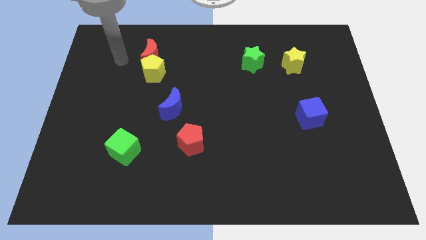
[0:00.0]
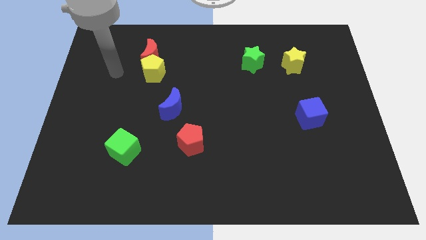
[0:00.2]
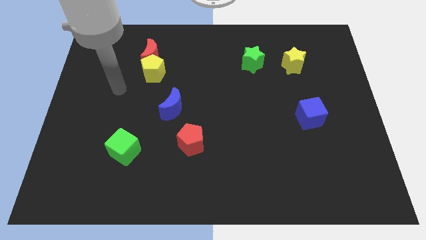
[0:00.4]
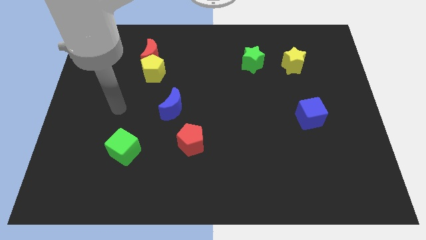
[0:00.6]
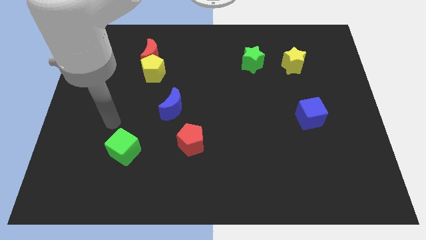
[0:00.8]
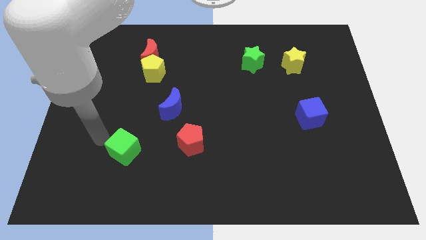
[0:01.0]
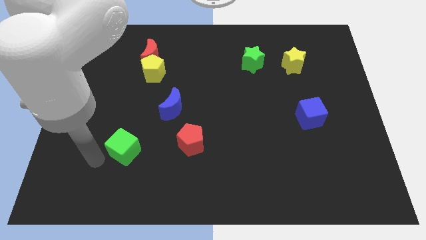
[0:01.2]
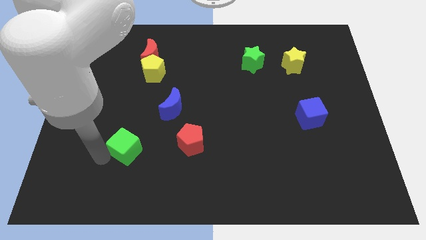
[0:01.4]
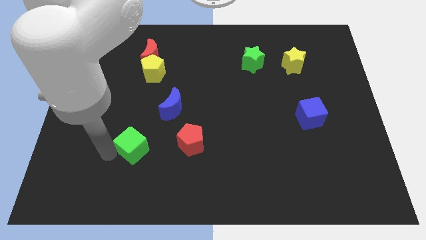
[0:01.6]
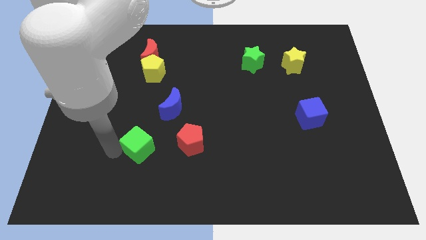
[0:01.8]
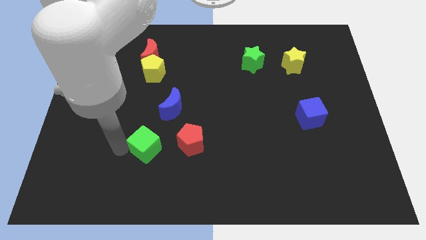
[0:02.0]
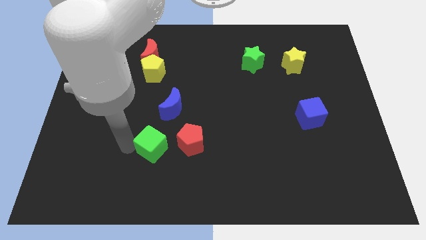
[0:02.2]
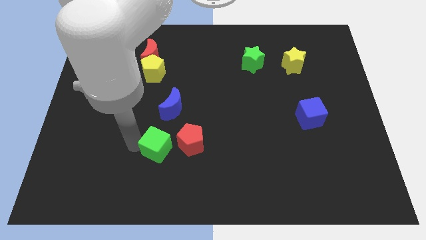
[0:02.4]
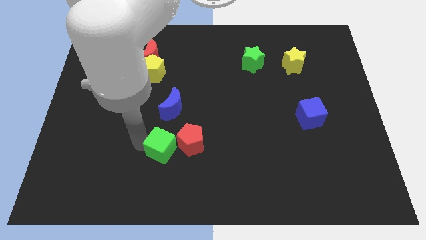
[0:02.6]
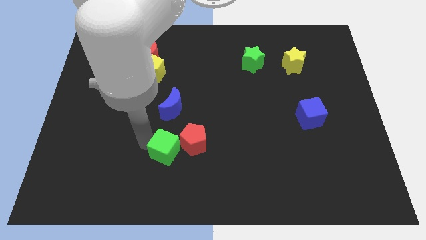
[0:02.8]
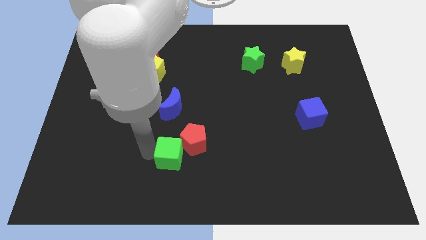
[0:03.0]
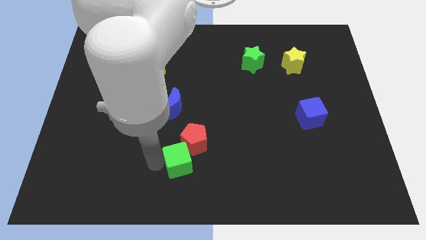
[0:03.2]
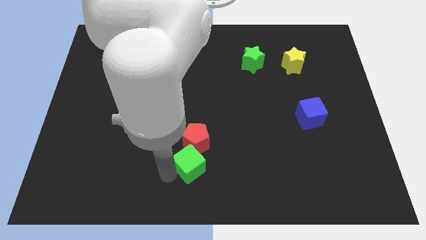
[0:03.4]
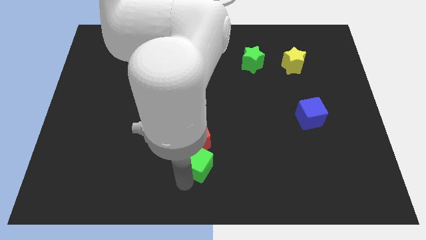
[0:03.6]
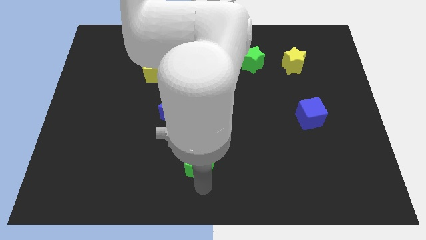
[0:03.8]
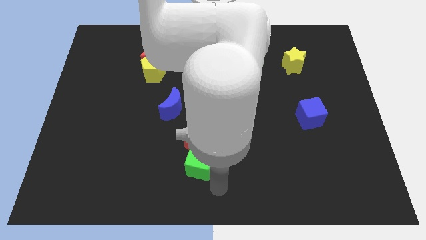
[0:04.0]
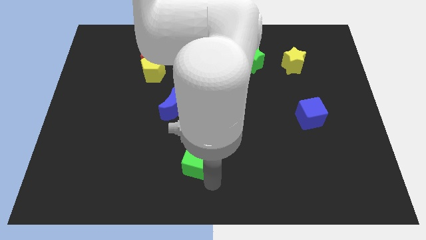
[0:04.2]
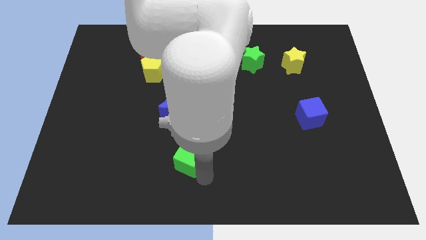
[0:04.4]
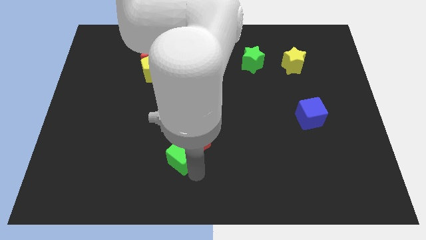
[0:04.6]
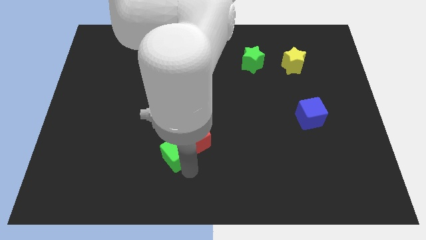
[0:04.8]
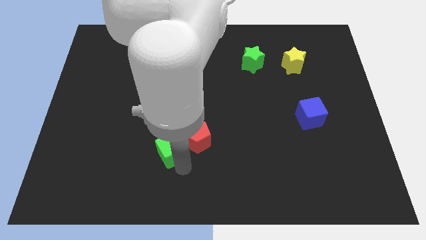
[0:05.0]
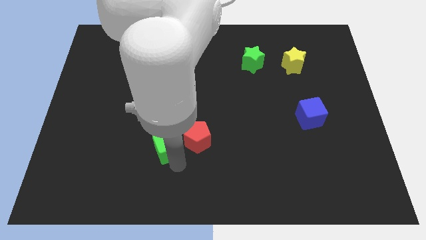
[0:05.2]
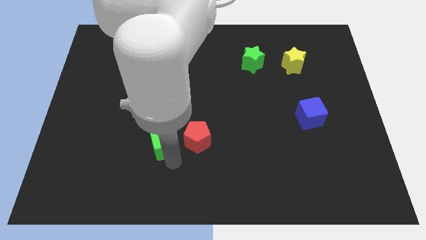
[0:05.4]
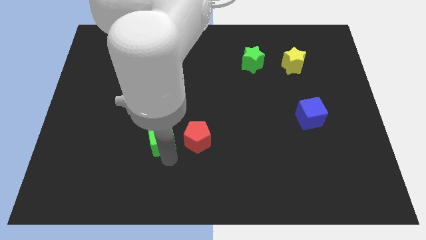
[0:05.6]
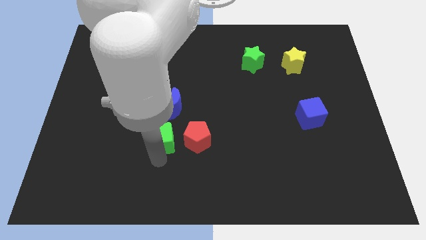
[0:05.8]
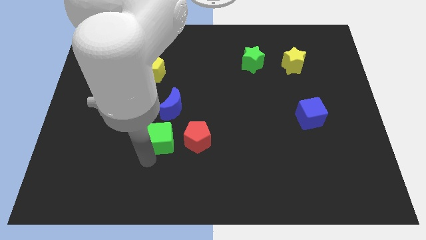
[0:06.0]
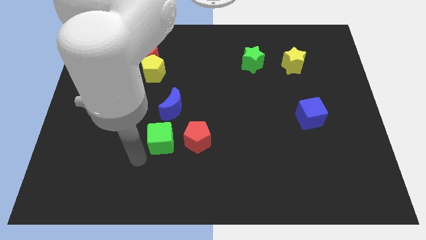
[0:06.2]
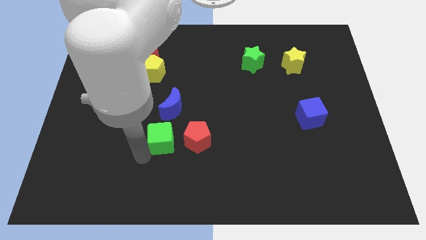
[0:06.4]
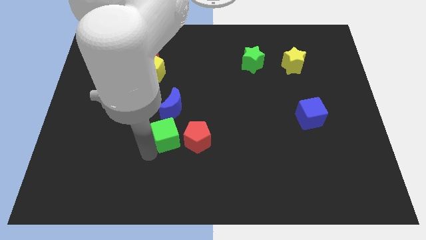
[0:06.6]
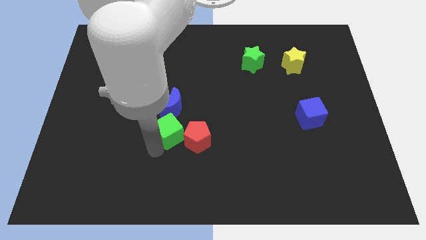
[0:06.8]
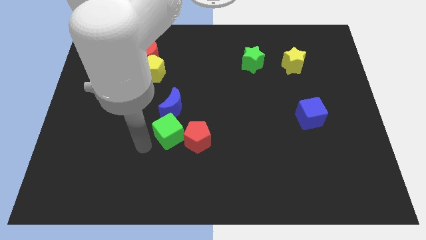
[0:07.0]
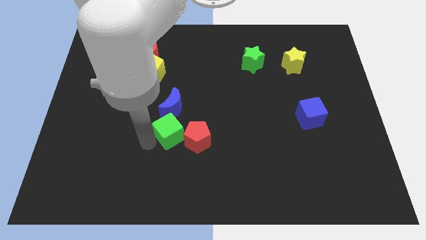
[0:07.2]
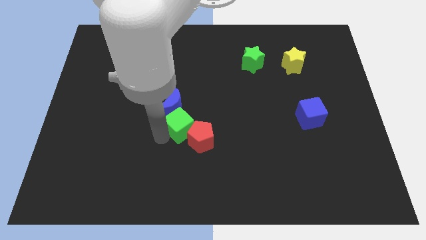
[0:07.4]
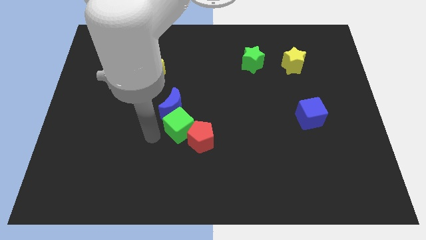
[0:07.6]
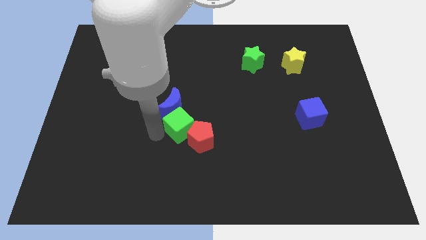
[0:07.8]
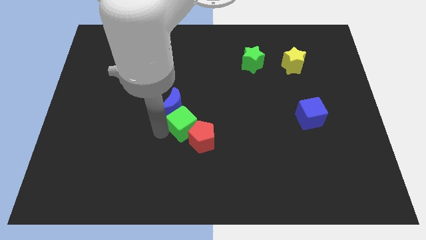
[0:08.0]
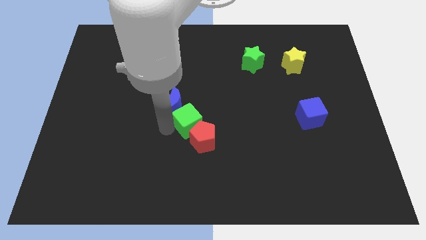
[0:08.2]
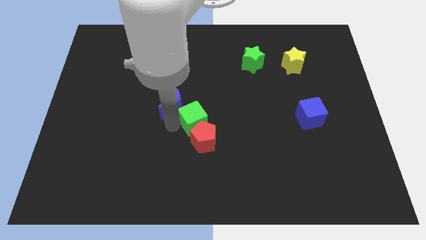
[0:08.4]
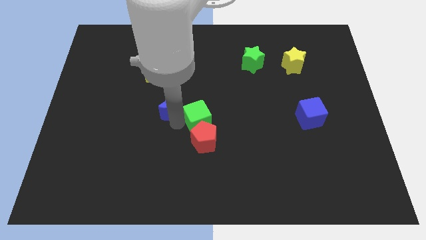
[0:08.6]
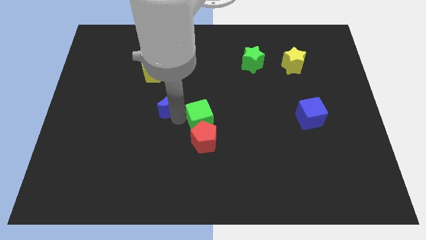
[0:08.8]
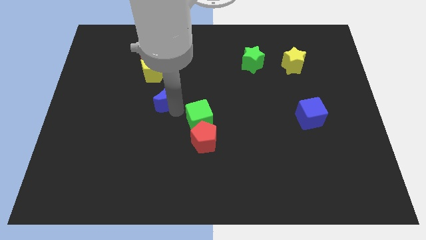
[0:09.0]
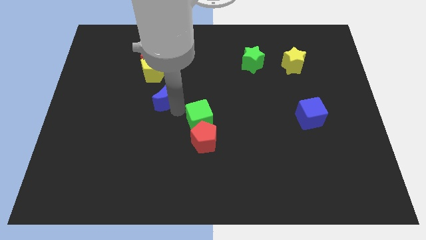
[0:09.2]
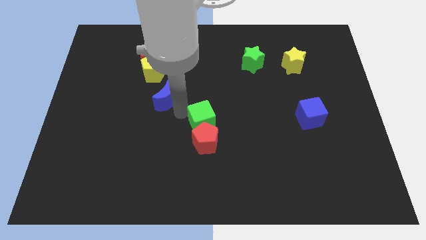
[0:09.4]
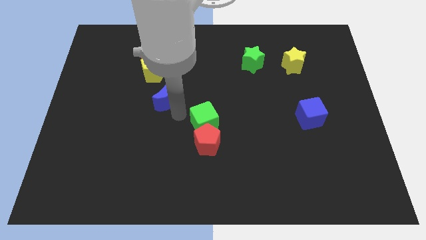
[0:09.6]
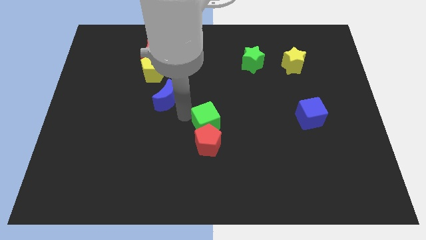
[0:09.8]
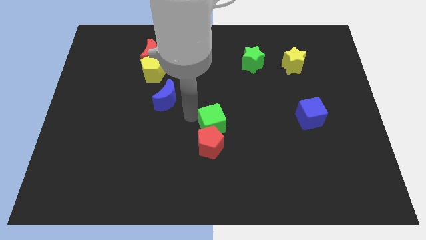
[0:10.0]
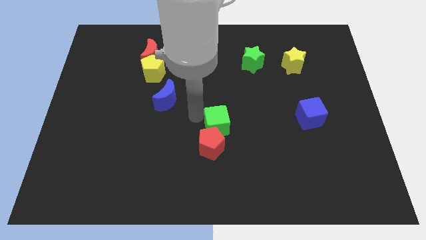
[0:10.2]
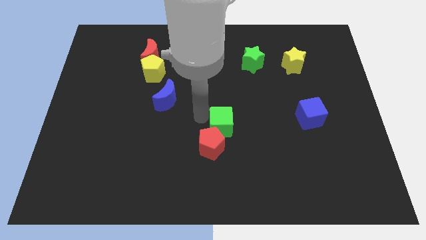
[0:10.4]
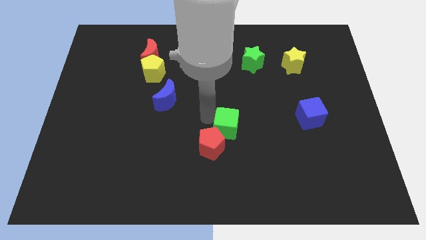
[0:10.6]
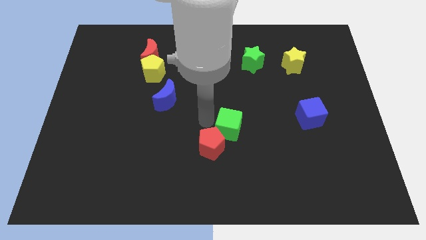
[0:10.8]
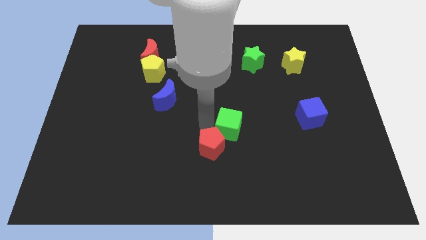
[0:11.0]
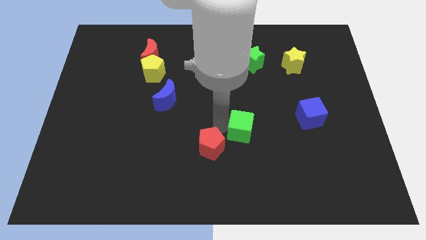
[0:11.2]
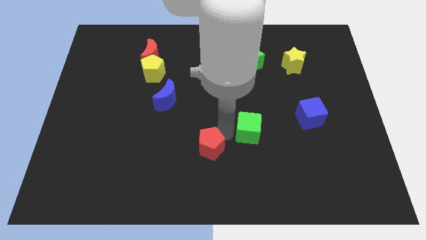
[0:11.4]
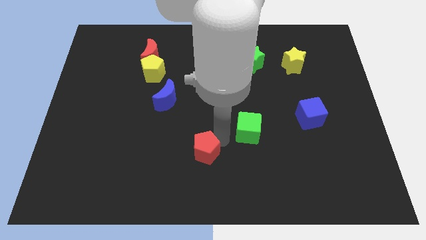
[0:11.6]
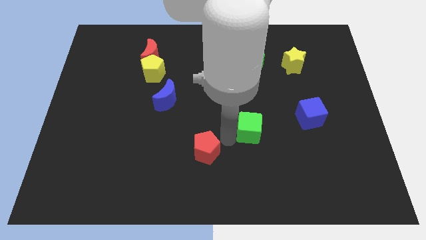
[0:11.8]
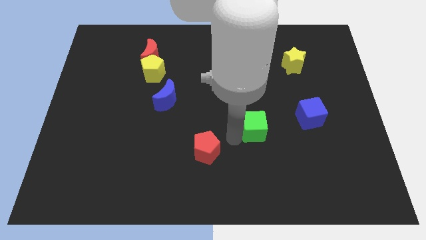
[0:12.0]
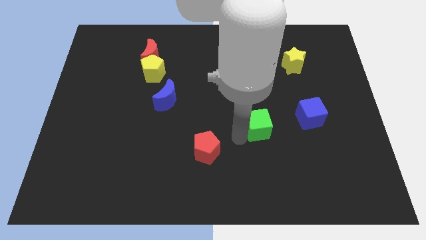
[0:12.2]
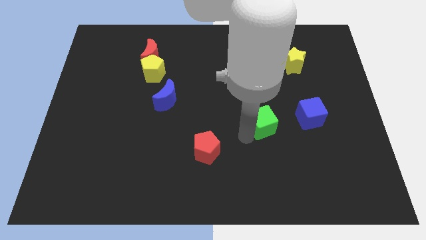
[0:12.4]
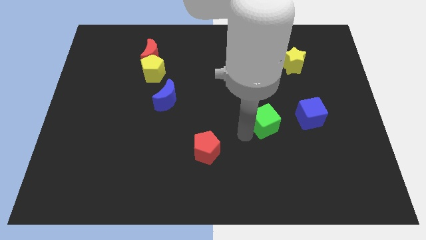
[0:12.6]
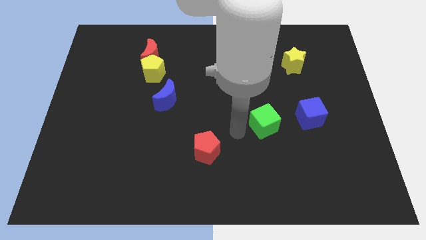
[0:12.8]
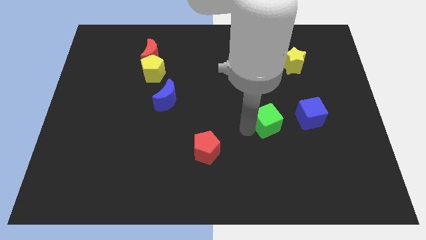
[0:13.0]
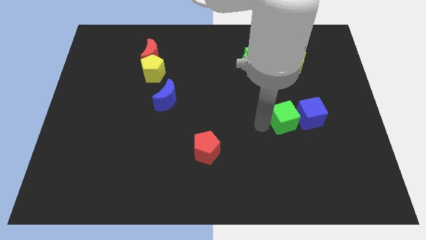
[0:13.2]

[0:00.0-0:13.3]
push the green cube towards the blue cube

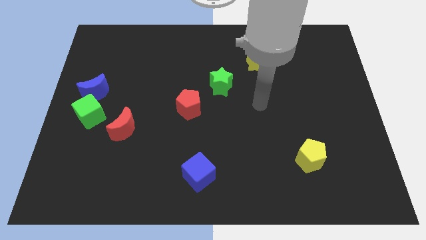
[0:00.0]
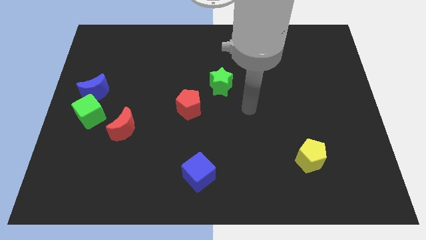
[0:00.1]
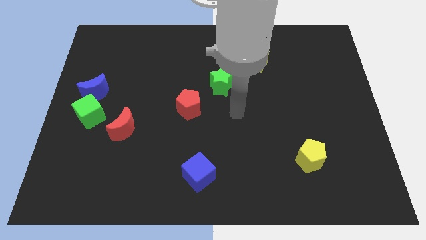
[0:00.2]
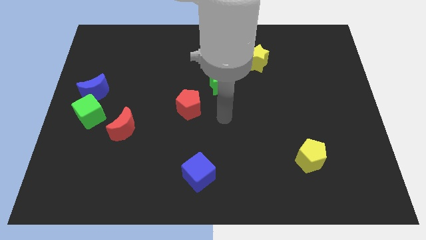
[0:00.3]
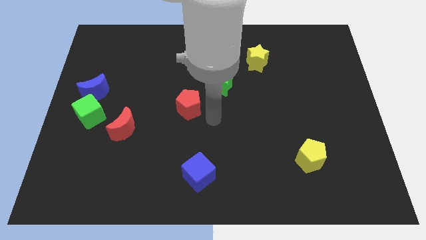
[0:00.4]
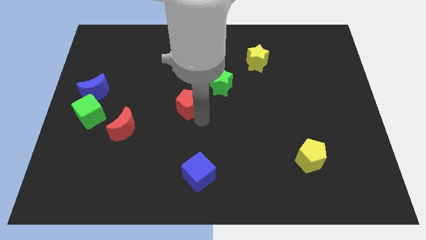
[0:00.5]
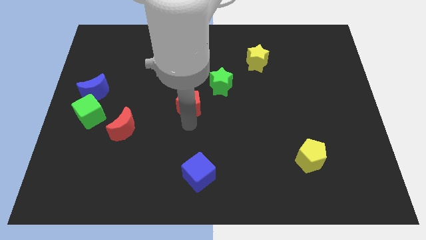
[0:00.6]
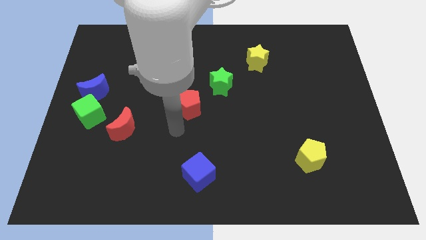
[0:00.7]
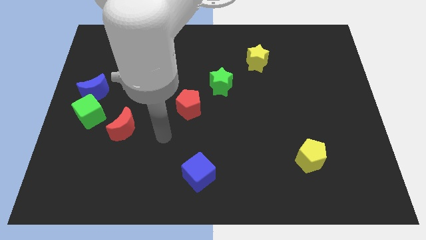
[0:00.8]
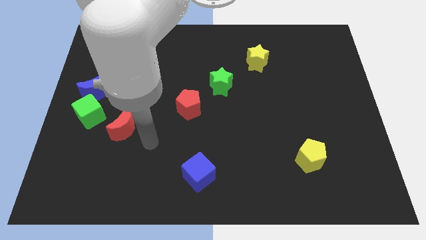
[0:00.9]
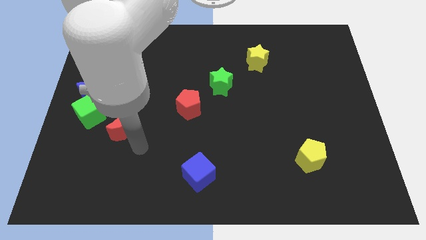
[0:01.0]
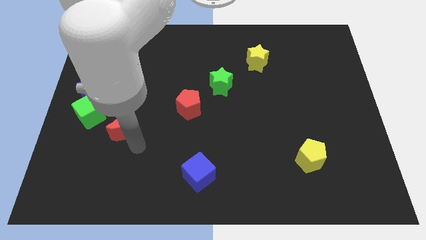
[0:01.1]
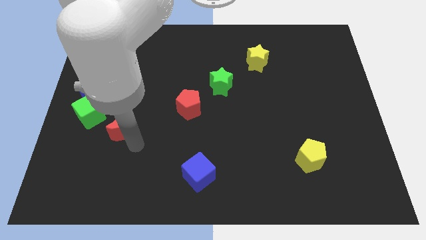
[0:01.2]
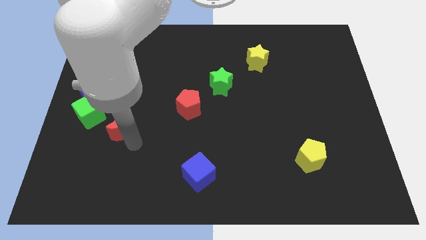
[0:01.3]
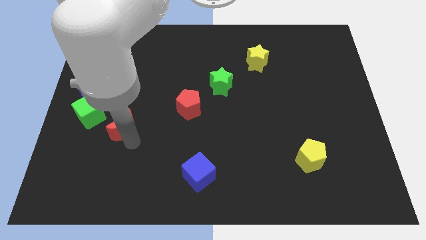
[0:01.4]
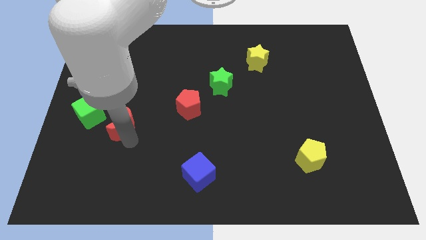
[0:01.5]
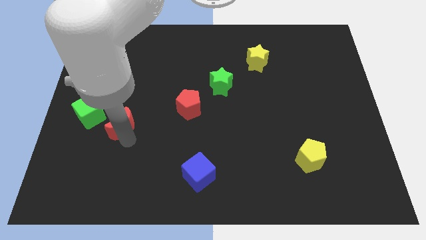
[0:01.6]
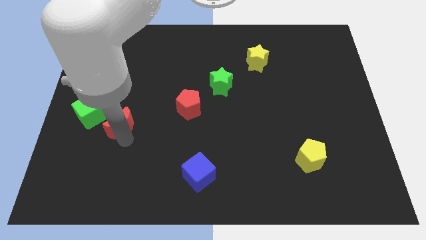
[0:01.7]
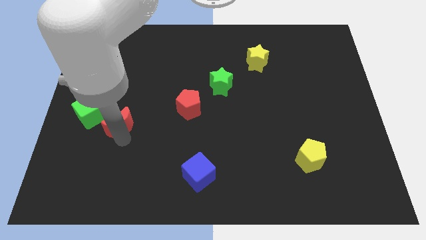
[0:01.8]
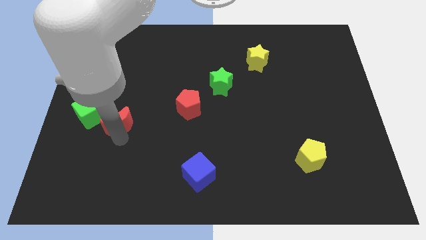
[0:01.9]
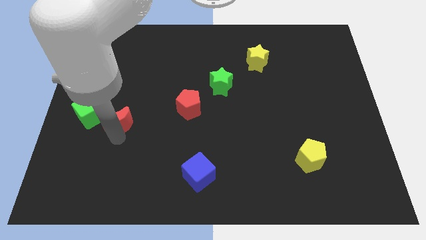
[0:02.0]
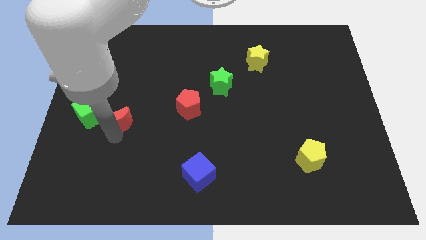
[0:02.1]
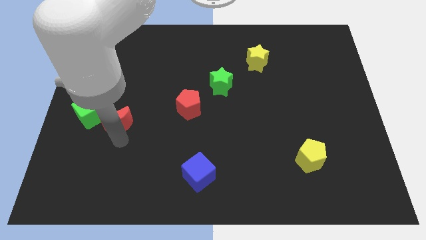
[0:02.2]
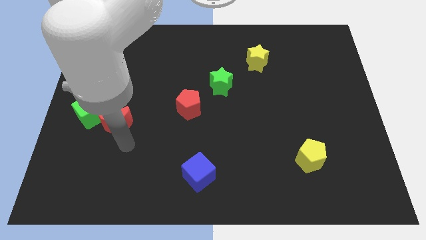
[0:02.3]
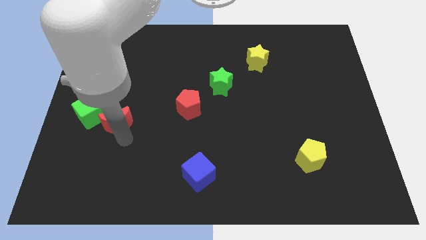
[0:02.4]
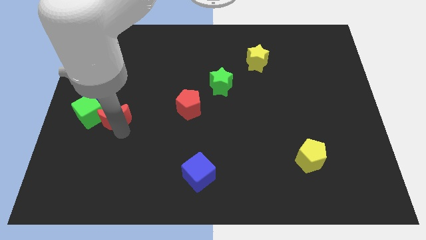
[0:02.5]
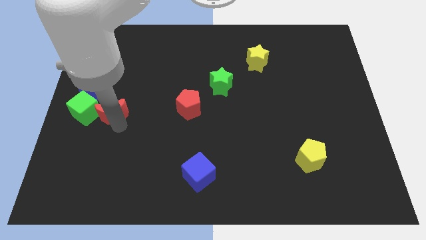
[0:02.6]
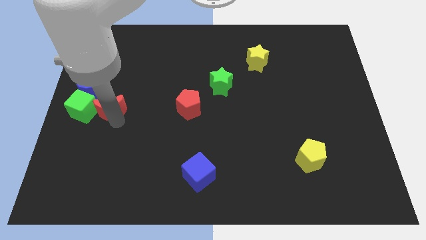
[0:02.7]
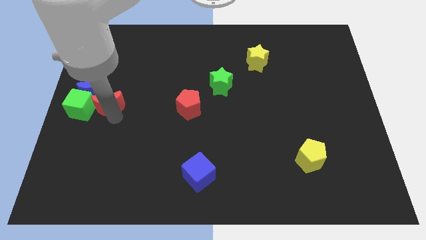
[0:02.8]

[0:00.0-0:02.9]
slide the red moon next to the blue moon
